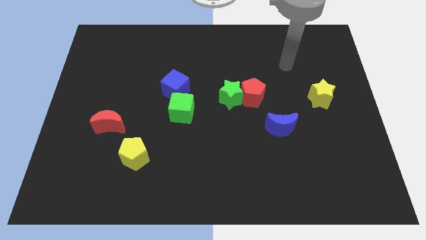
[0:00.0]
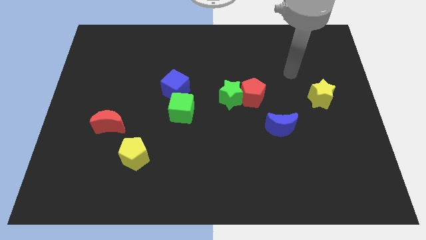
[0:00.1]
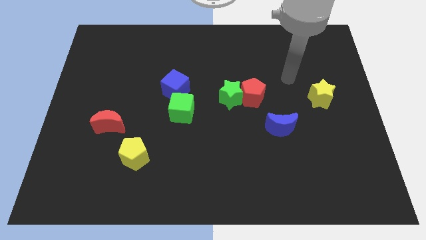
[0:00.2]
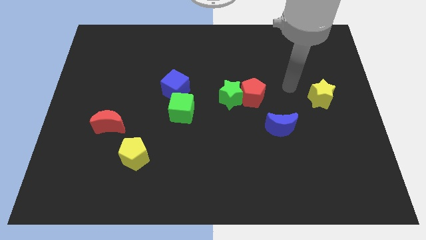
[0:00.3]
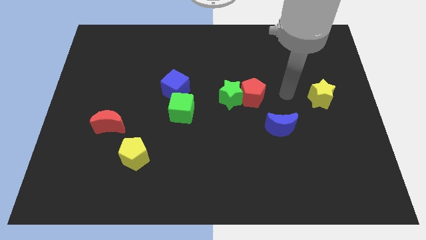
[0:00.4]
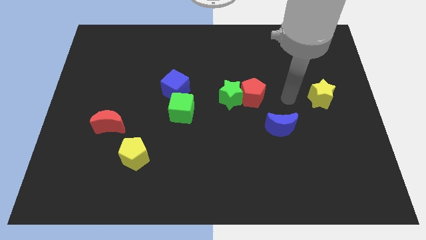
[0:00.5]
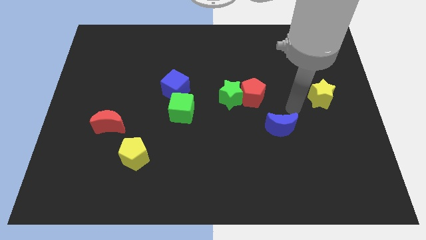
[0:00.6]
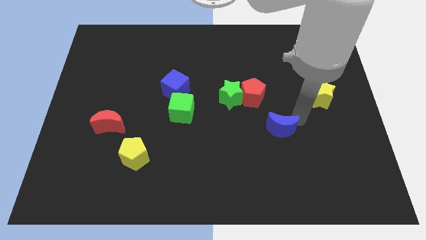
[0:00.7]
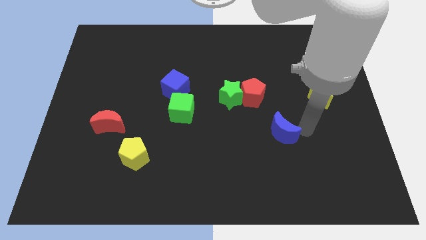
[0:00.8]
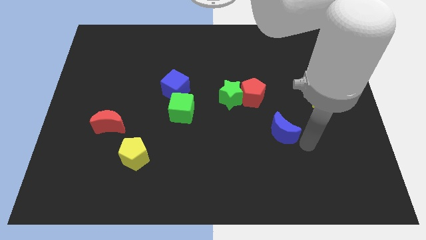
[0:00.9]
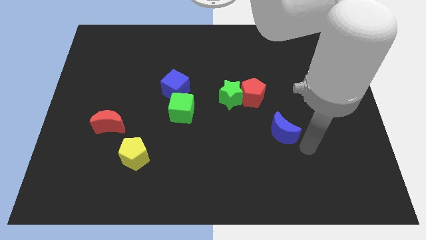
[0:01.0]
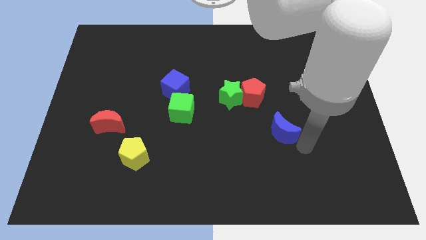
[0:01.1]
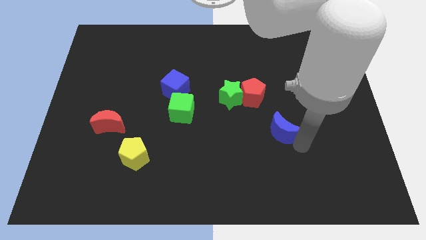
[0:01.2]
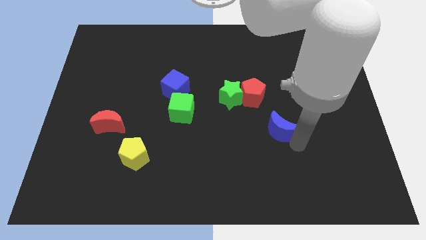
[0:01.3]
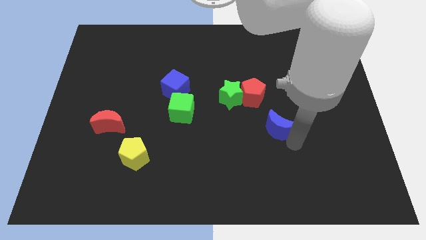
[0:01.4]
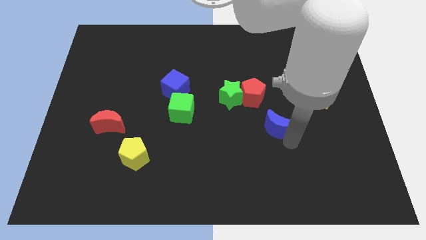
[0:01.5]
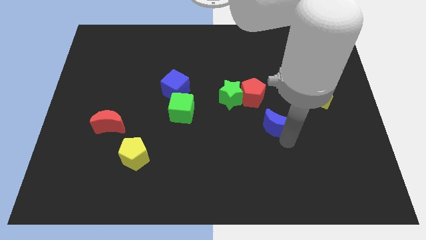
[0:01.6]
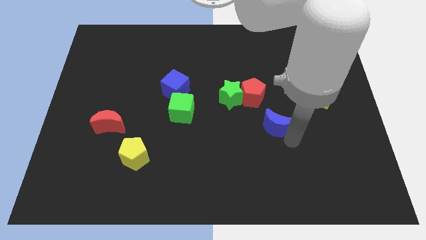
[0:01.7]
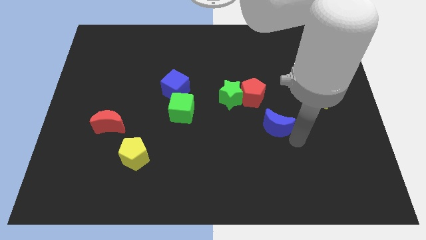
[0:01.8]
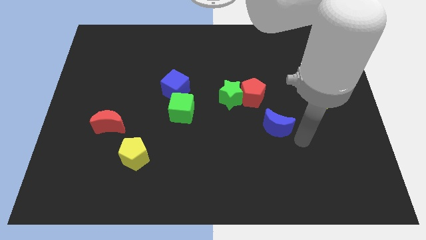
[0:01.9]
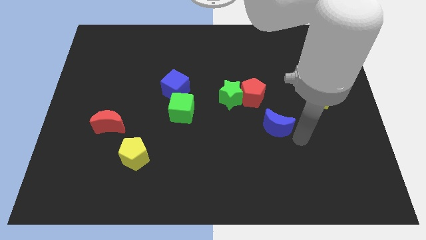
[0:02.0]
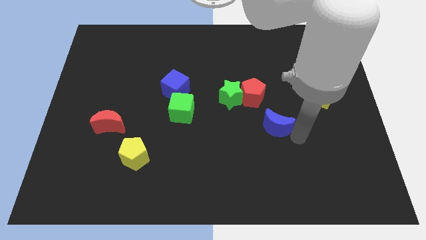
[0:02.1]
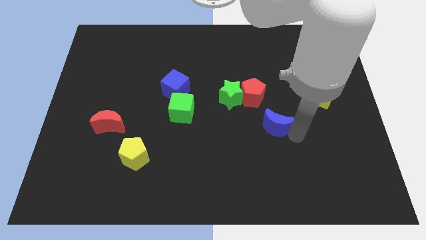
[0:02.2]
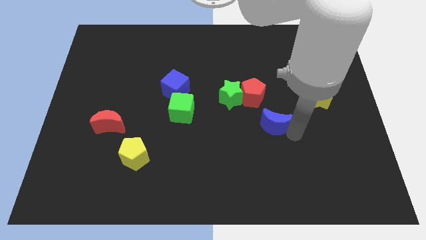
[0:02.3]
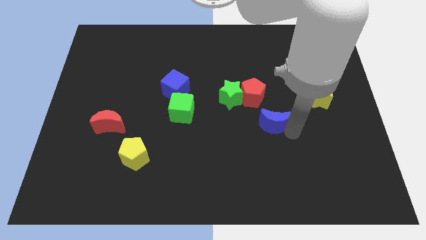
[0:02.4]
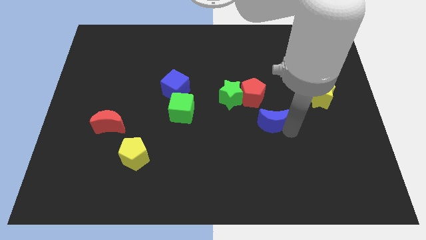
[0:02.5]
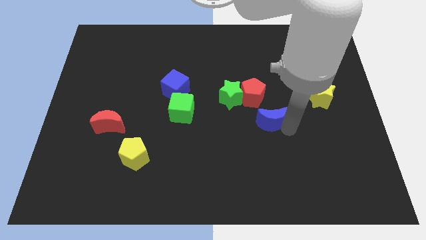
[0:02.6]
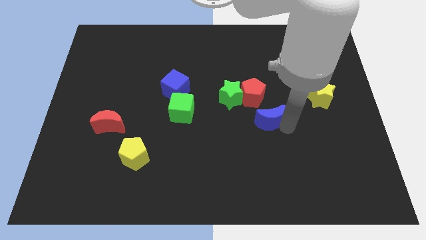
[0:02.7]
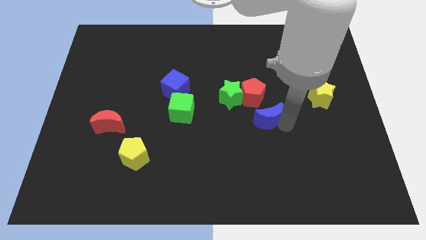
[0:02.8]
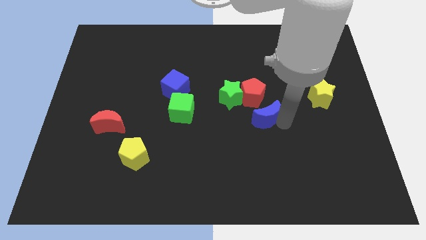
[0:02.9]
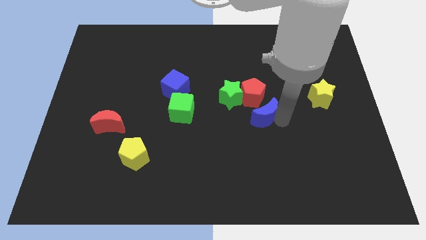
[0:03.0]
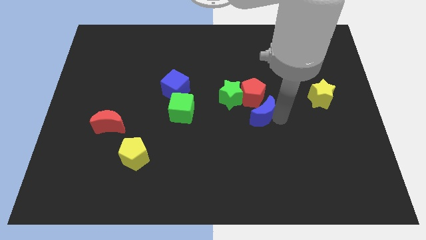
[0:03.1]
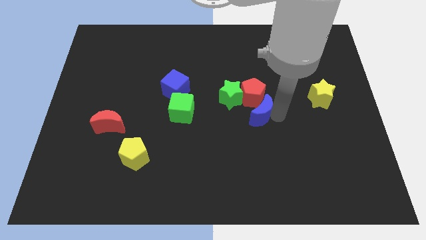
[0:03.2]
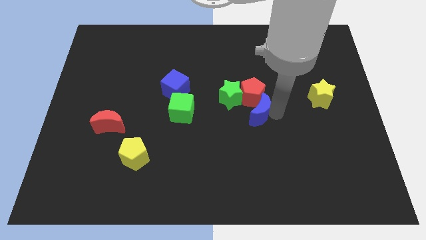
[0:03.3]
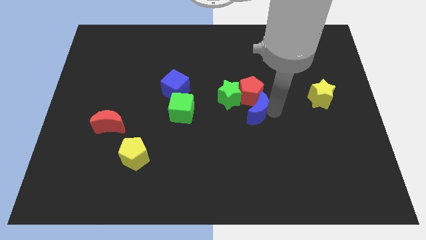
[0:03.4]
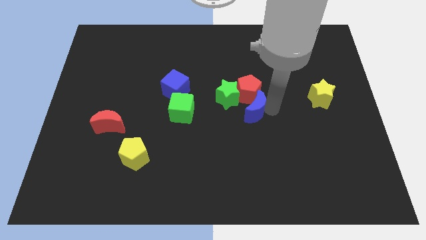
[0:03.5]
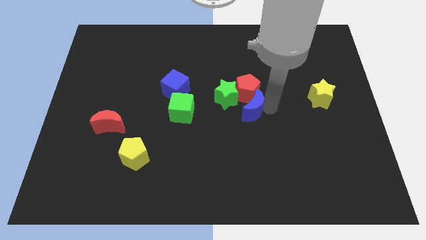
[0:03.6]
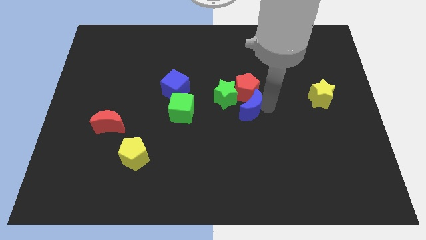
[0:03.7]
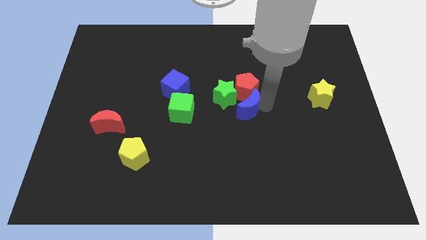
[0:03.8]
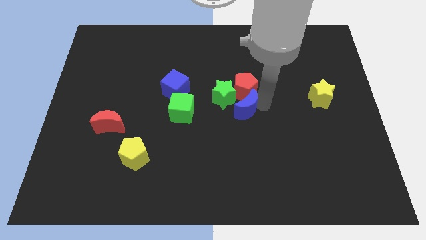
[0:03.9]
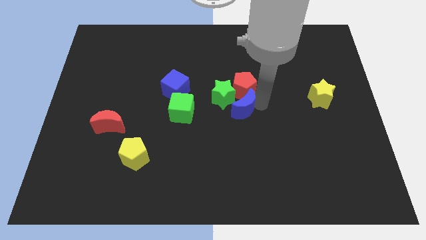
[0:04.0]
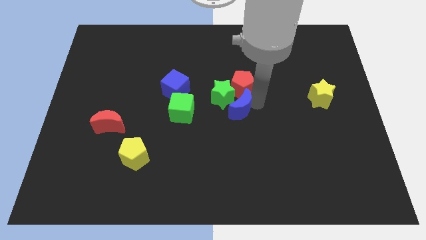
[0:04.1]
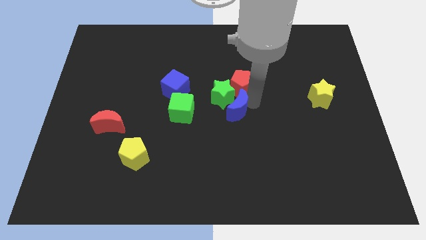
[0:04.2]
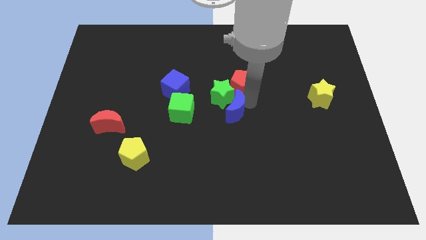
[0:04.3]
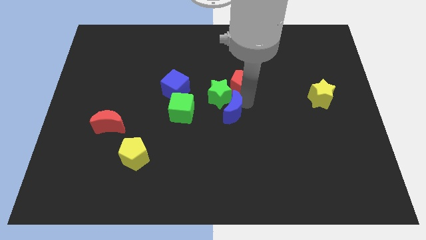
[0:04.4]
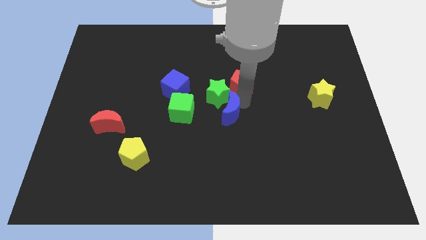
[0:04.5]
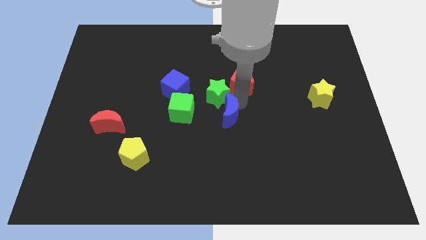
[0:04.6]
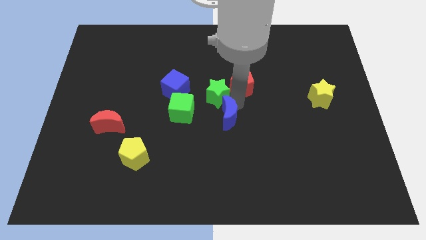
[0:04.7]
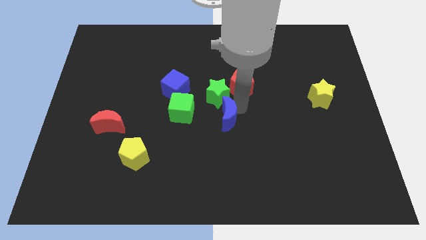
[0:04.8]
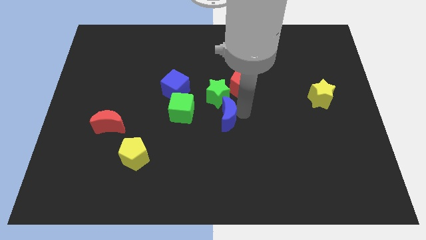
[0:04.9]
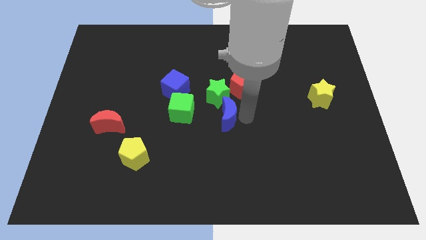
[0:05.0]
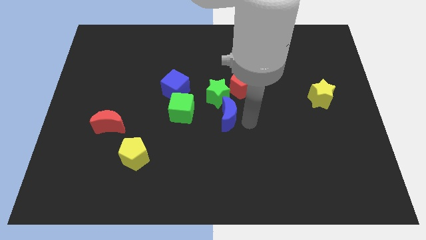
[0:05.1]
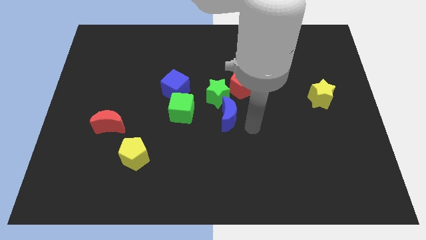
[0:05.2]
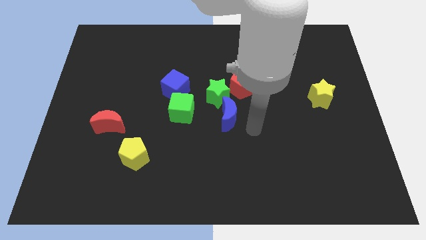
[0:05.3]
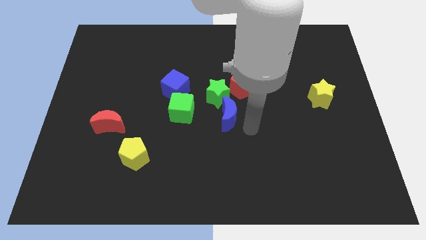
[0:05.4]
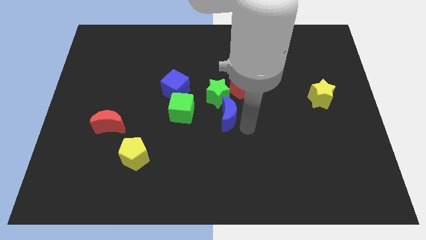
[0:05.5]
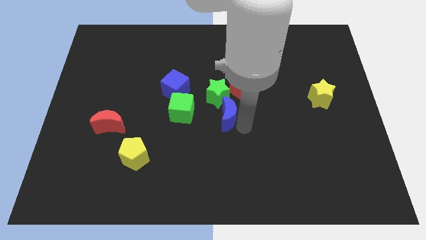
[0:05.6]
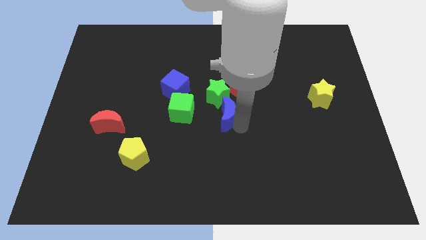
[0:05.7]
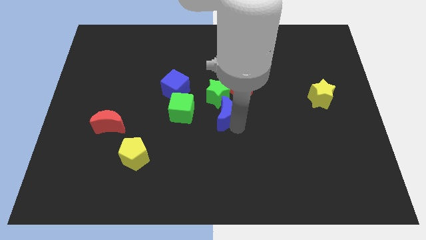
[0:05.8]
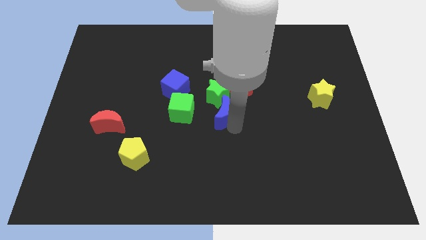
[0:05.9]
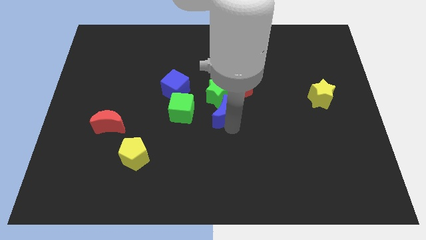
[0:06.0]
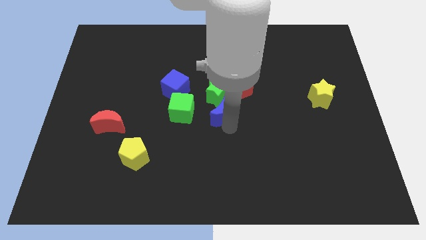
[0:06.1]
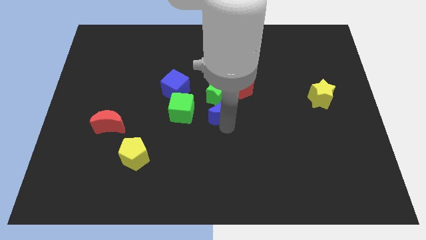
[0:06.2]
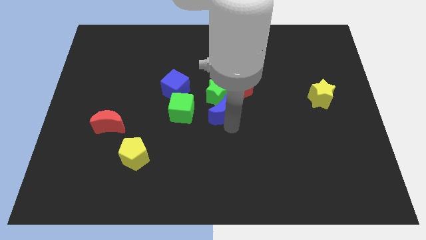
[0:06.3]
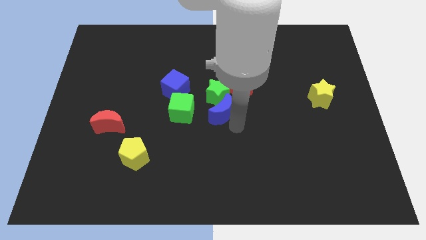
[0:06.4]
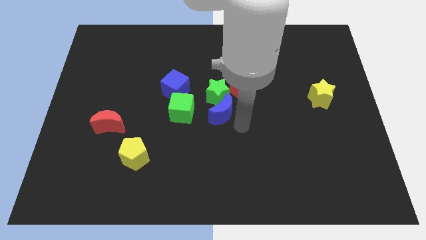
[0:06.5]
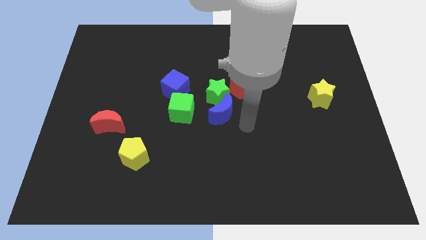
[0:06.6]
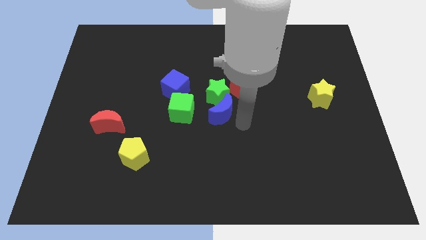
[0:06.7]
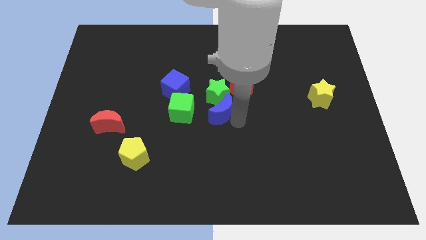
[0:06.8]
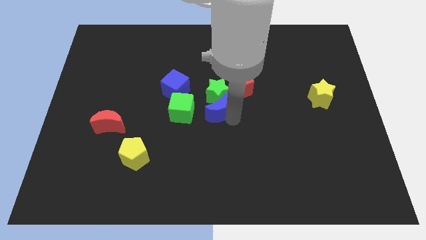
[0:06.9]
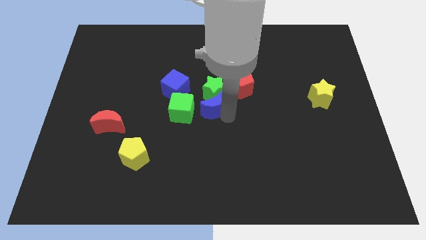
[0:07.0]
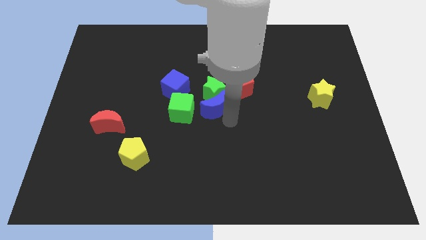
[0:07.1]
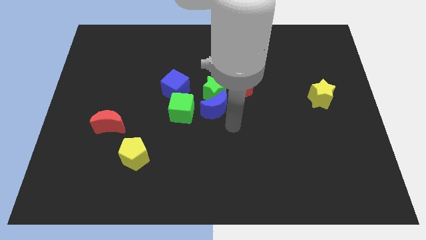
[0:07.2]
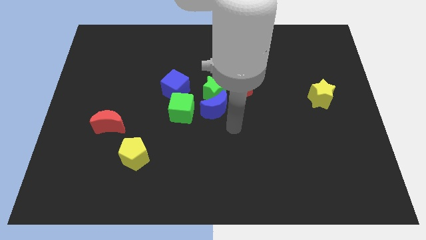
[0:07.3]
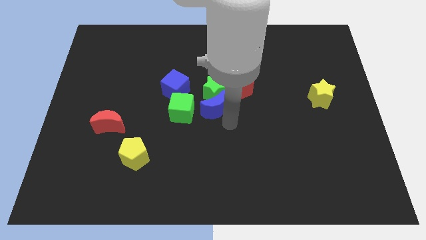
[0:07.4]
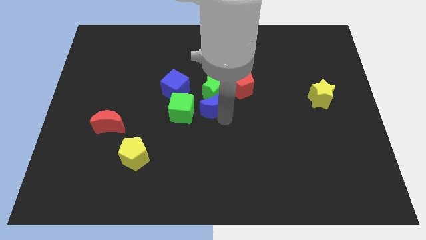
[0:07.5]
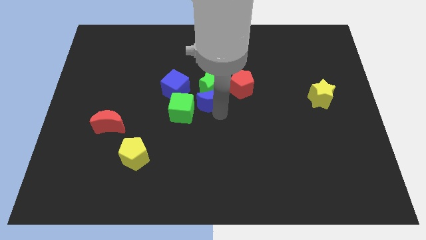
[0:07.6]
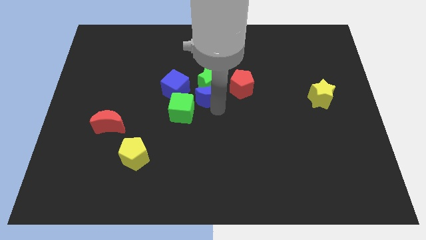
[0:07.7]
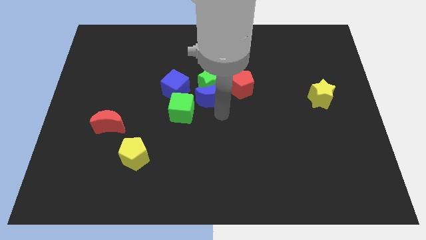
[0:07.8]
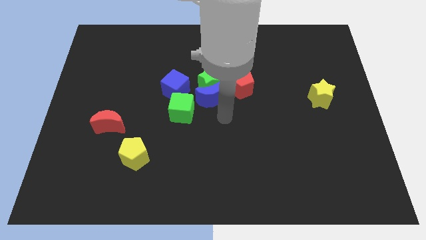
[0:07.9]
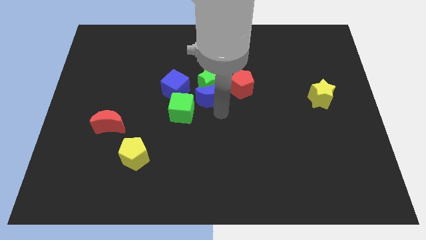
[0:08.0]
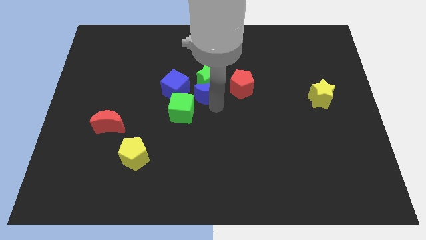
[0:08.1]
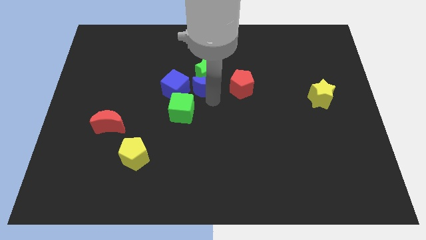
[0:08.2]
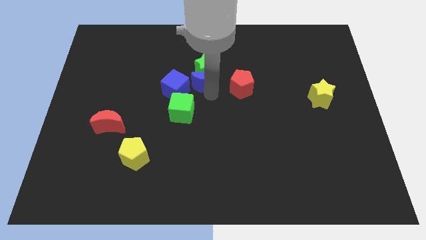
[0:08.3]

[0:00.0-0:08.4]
slide the blue moon up and to the left
